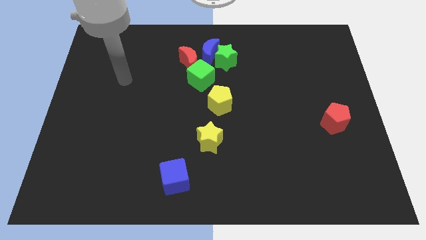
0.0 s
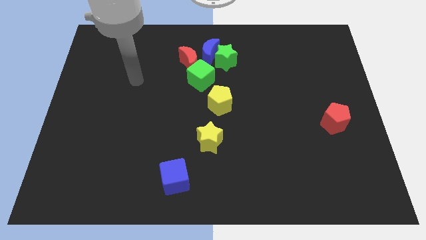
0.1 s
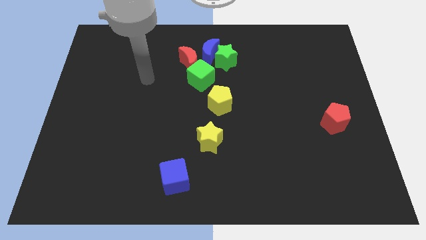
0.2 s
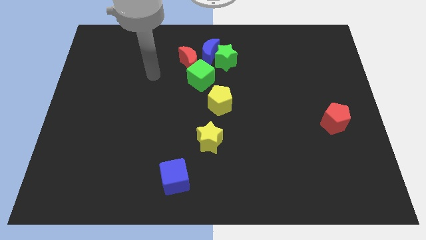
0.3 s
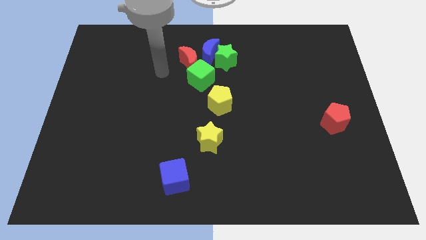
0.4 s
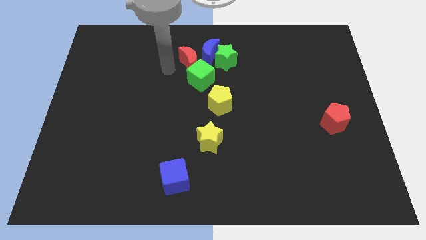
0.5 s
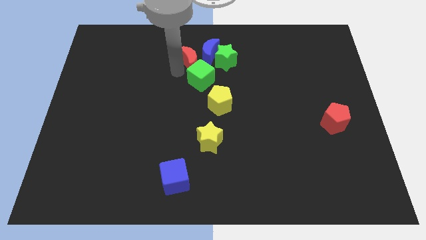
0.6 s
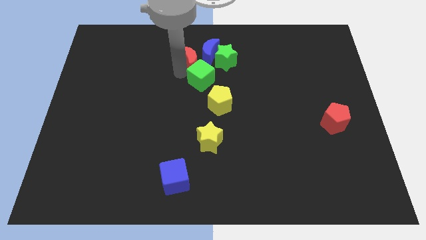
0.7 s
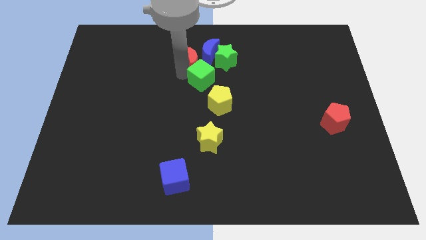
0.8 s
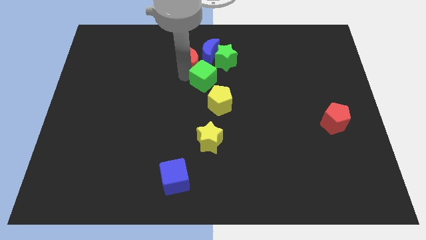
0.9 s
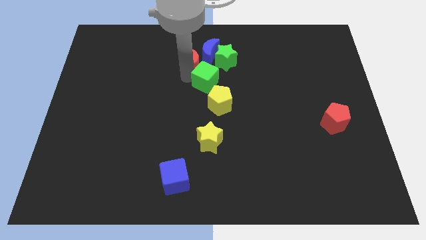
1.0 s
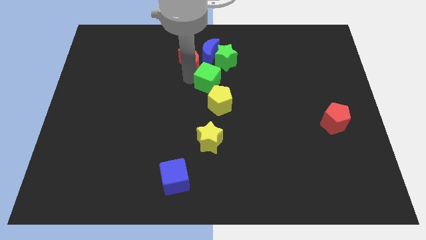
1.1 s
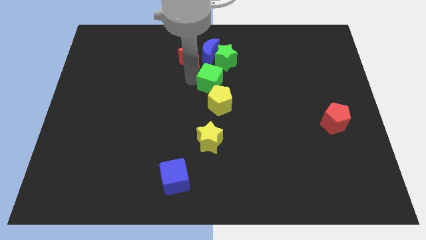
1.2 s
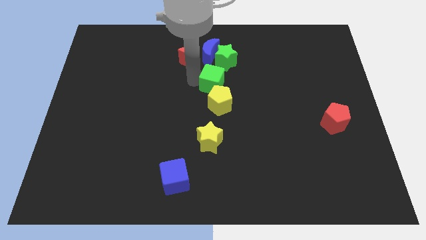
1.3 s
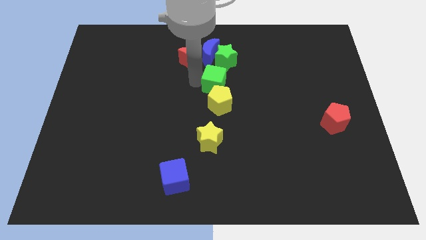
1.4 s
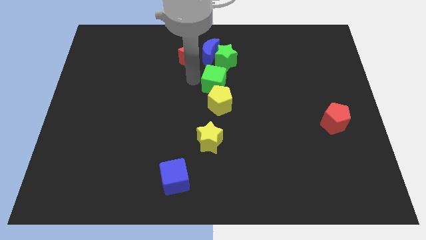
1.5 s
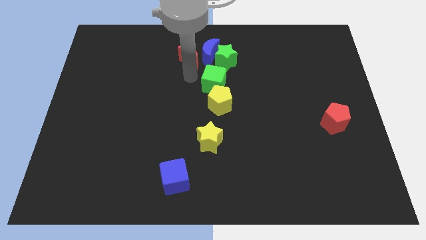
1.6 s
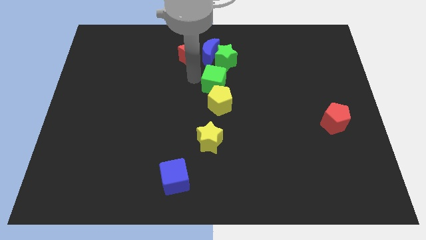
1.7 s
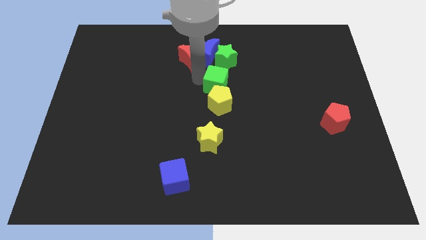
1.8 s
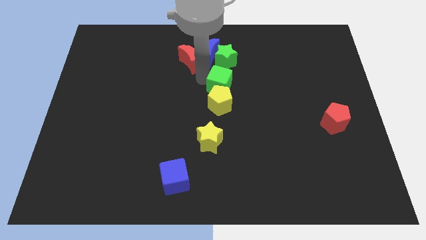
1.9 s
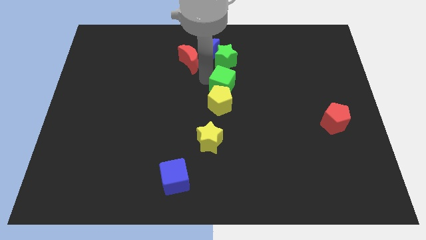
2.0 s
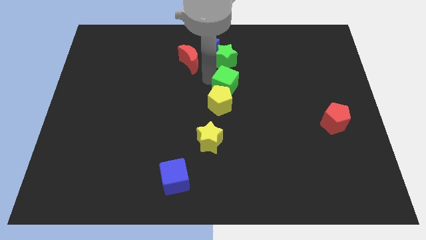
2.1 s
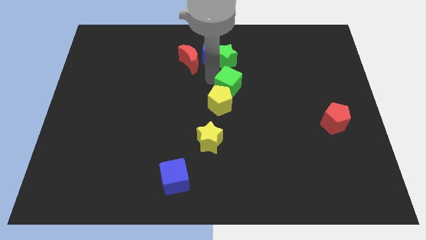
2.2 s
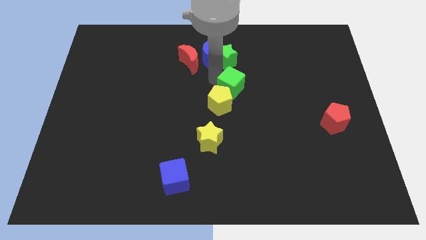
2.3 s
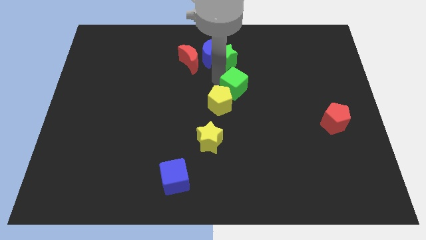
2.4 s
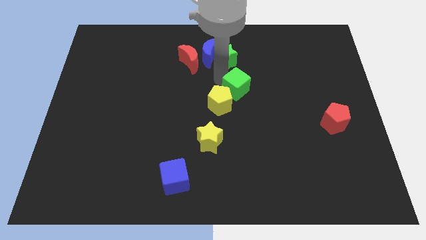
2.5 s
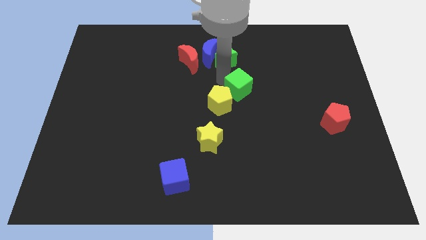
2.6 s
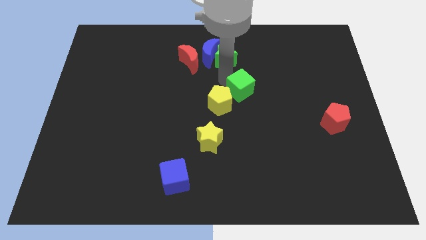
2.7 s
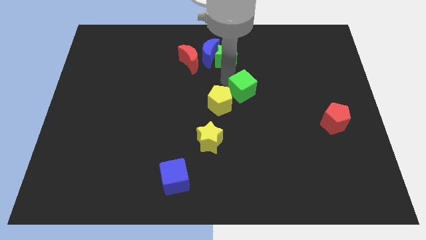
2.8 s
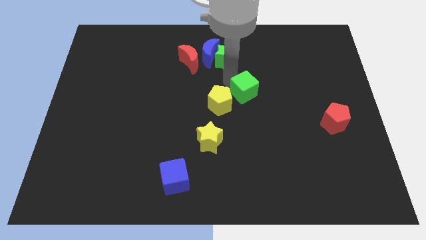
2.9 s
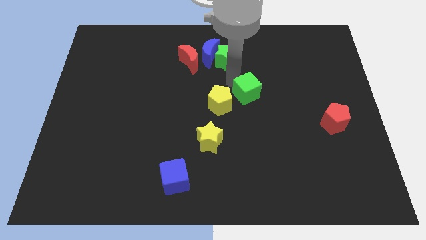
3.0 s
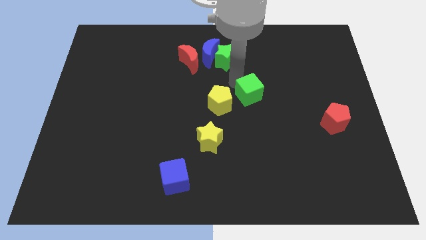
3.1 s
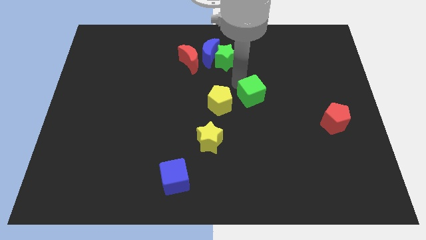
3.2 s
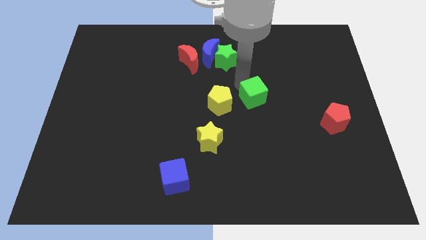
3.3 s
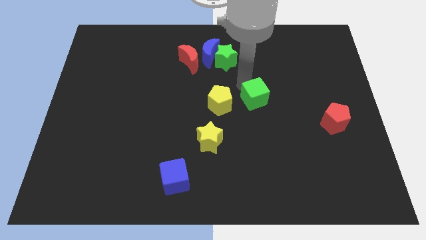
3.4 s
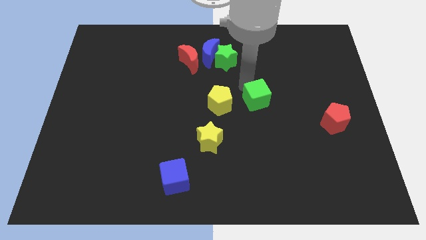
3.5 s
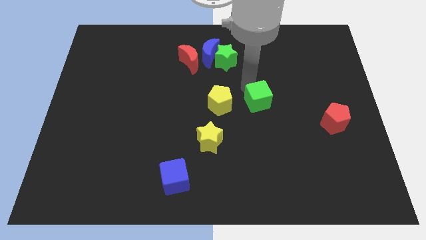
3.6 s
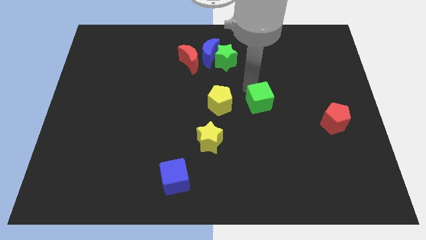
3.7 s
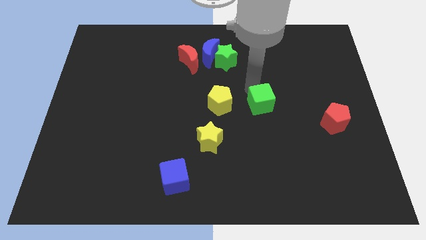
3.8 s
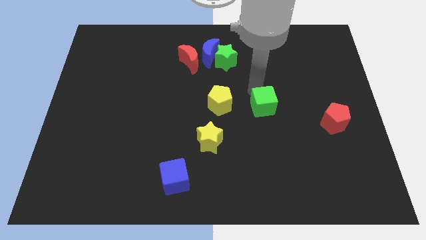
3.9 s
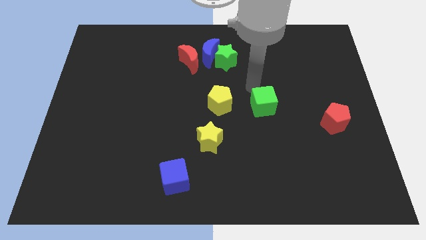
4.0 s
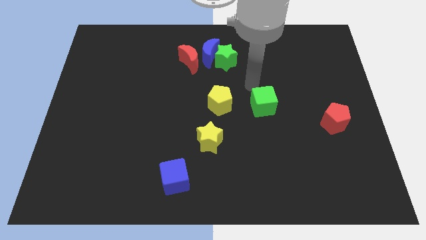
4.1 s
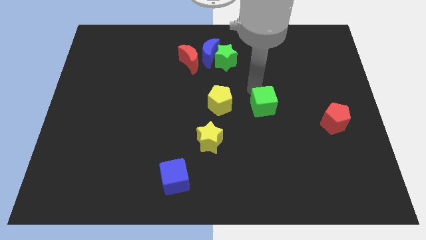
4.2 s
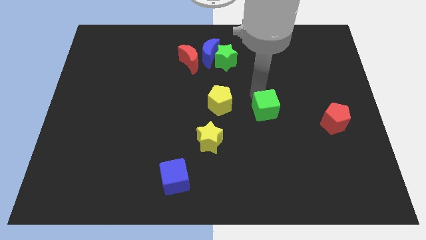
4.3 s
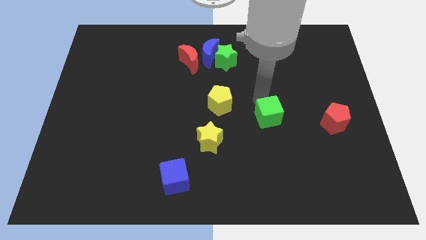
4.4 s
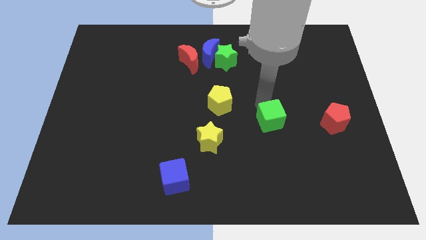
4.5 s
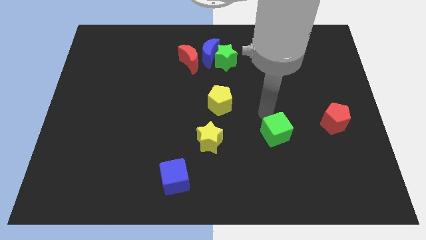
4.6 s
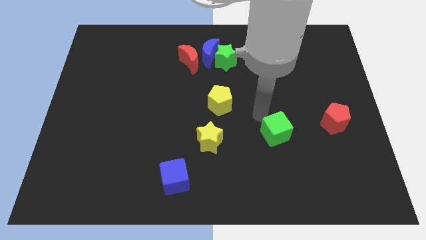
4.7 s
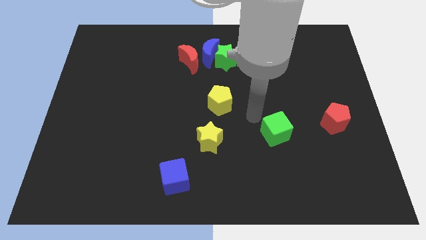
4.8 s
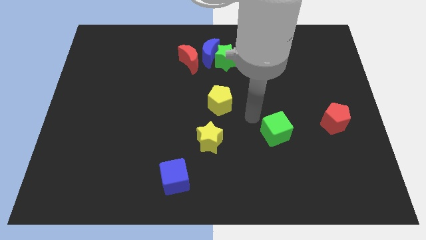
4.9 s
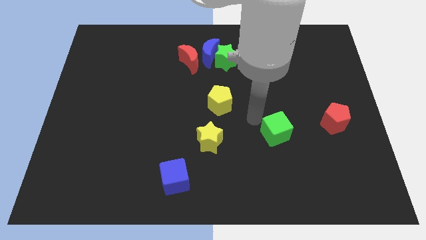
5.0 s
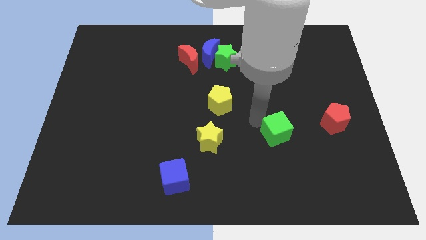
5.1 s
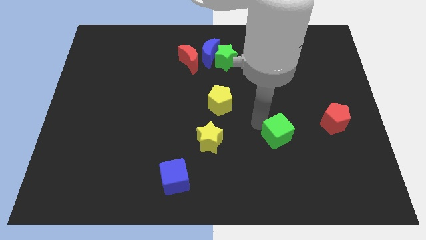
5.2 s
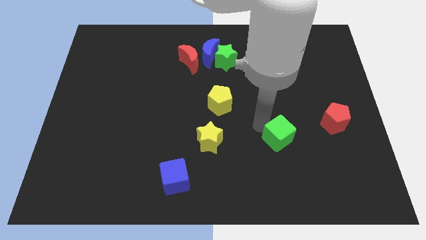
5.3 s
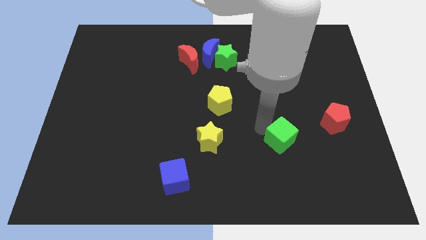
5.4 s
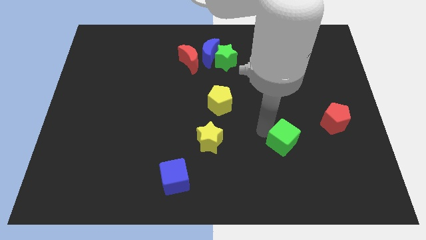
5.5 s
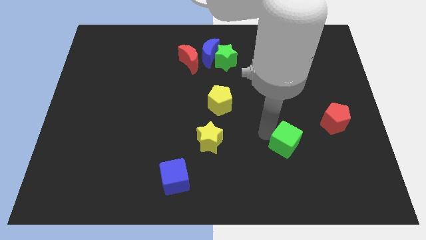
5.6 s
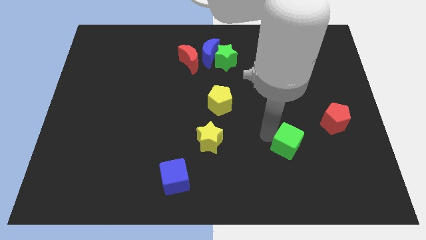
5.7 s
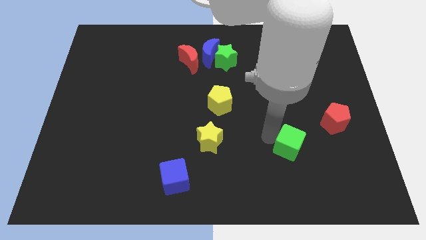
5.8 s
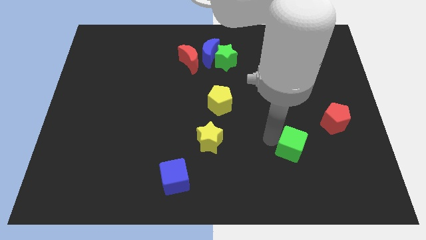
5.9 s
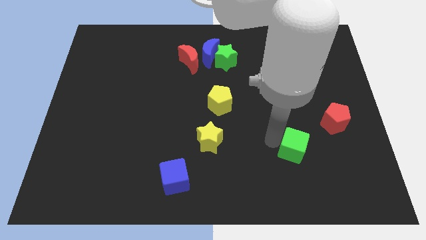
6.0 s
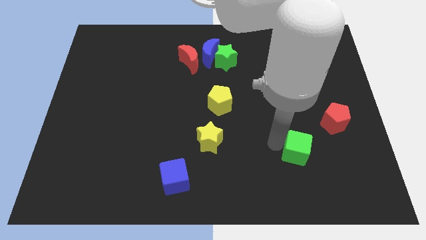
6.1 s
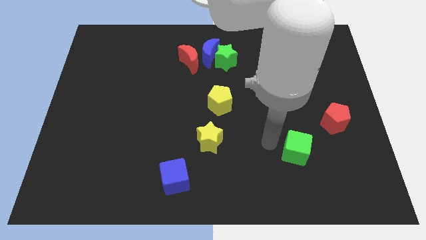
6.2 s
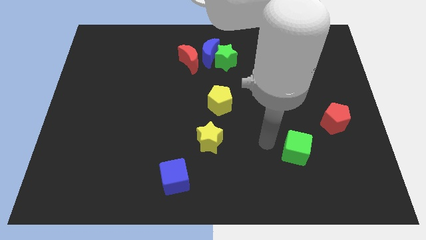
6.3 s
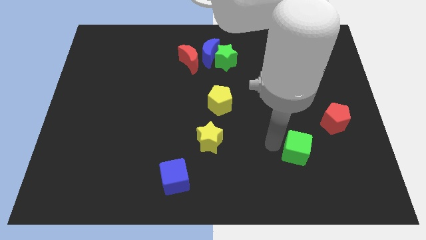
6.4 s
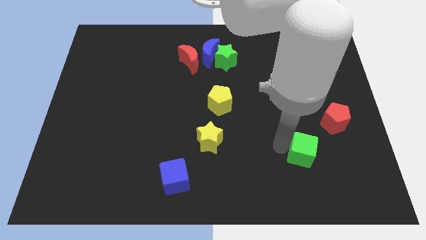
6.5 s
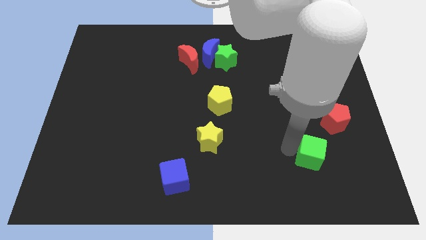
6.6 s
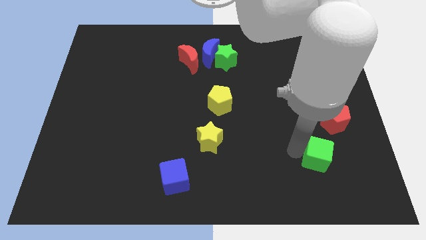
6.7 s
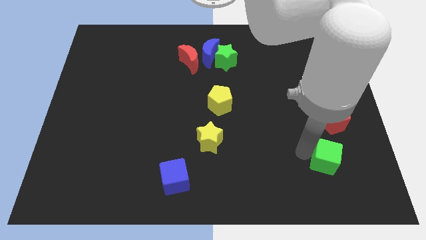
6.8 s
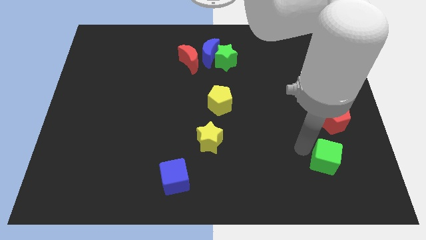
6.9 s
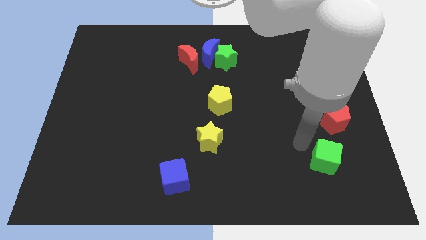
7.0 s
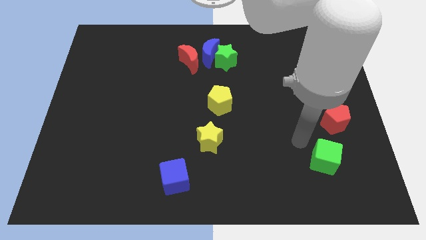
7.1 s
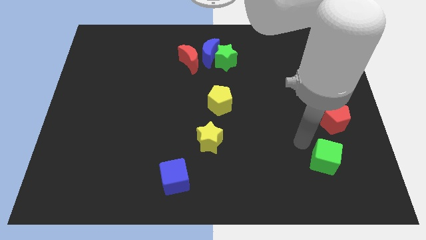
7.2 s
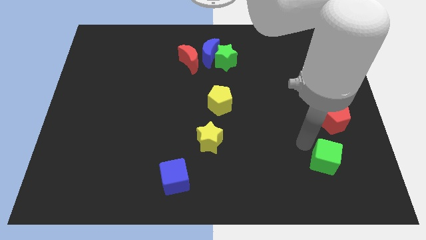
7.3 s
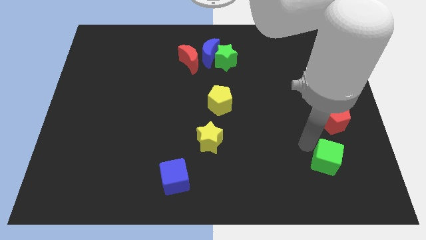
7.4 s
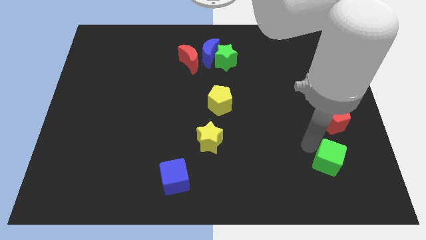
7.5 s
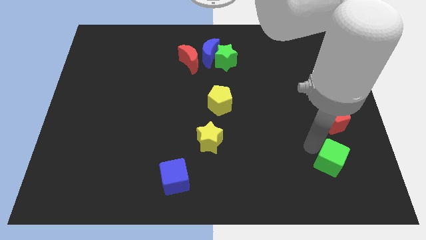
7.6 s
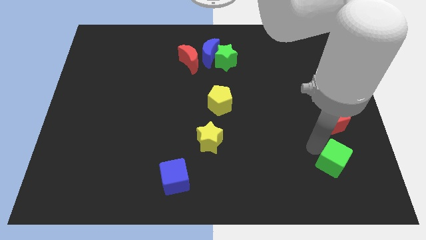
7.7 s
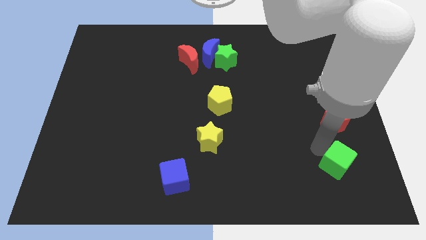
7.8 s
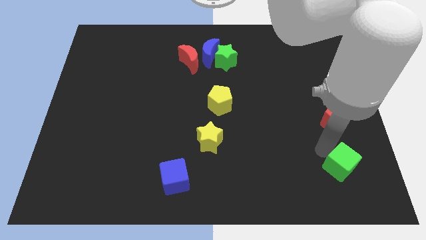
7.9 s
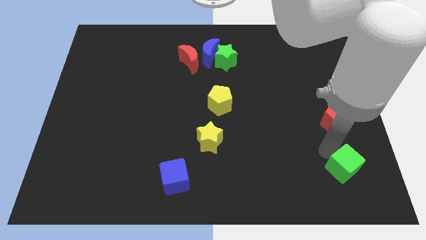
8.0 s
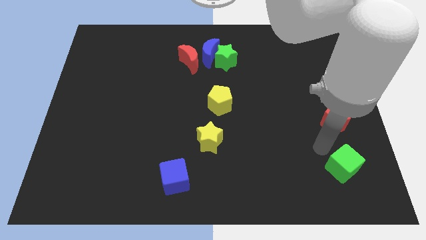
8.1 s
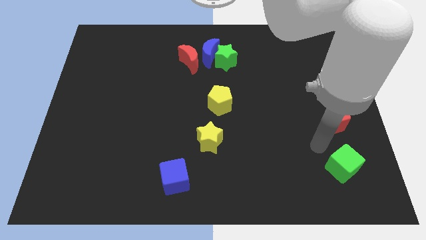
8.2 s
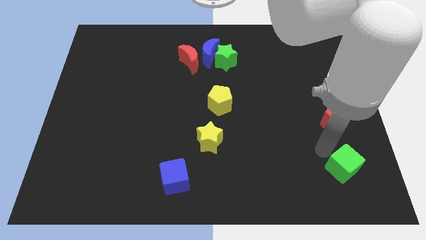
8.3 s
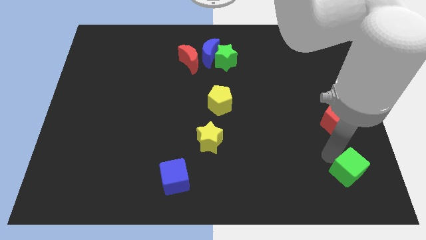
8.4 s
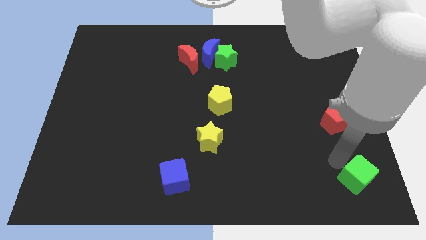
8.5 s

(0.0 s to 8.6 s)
move the green cube to the lower right corner
